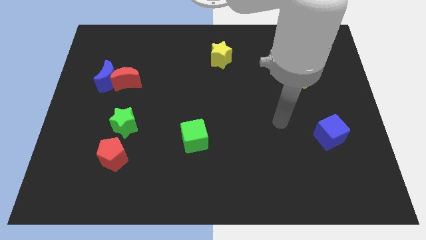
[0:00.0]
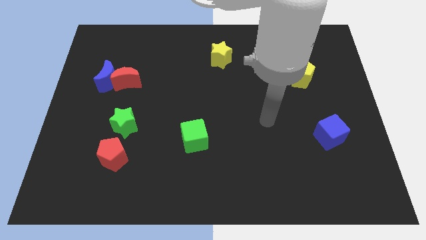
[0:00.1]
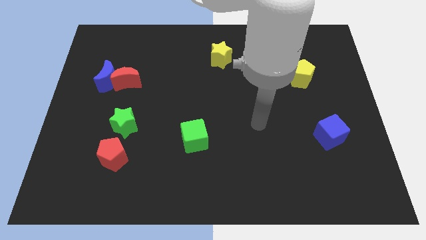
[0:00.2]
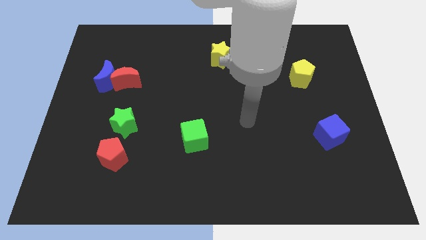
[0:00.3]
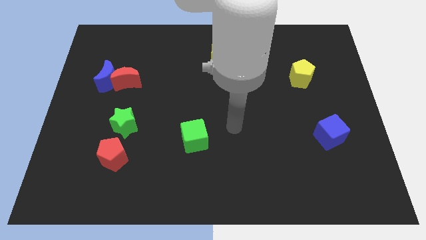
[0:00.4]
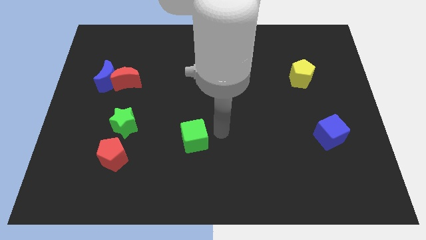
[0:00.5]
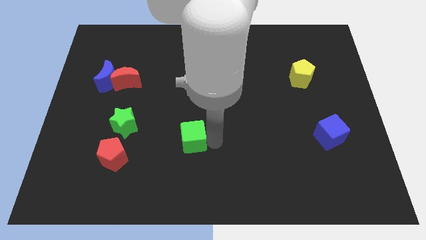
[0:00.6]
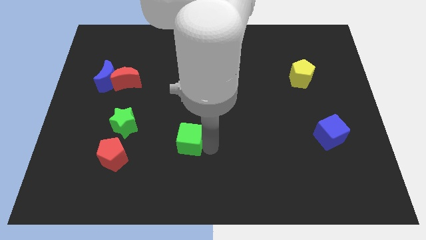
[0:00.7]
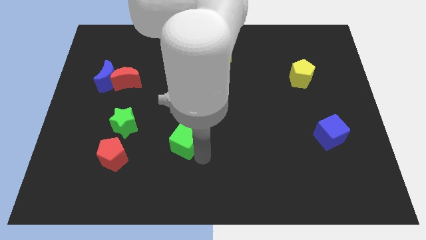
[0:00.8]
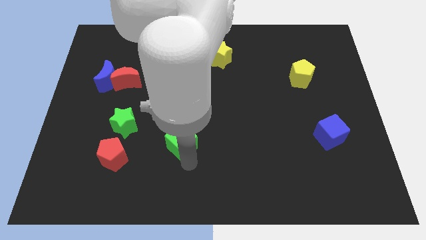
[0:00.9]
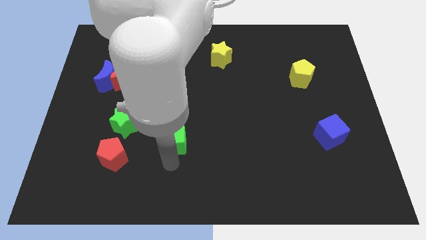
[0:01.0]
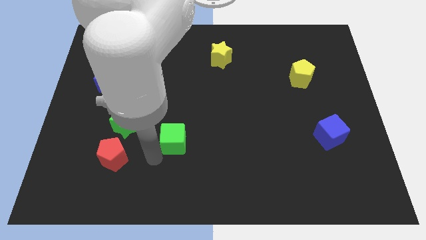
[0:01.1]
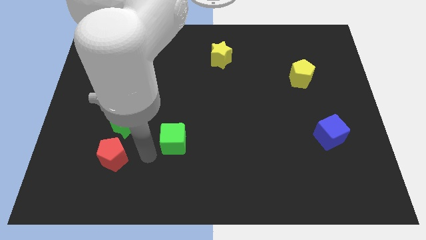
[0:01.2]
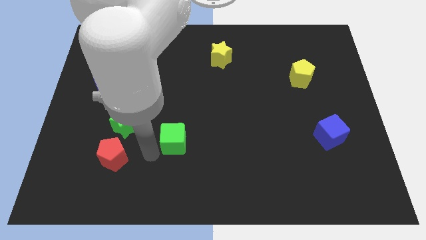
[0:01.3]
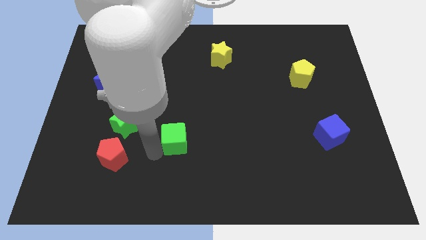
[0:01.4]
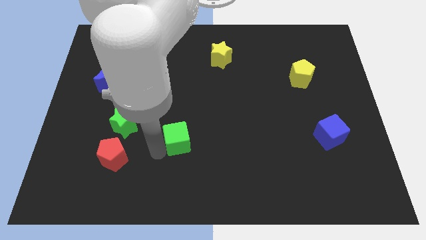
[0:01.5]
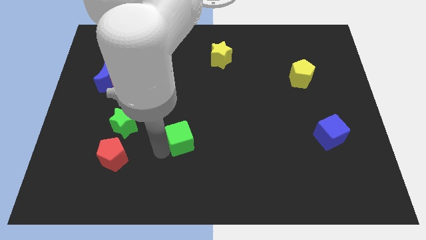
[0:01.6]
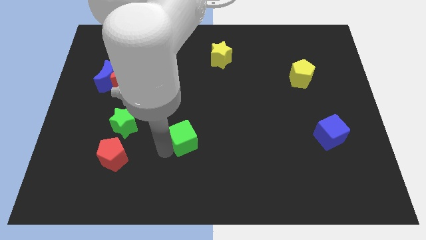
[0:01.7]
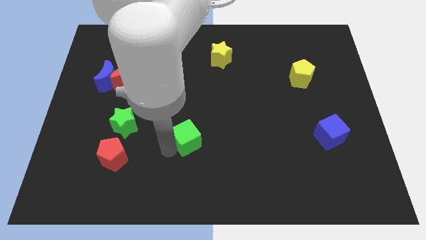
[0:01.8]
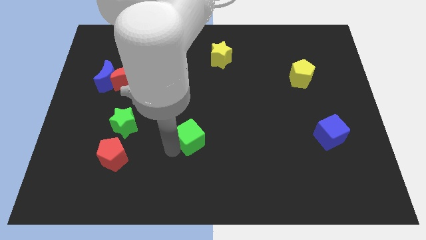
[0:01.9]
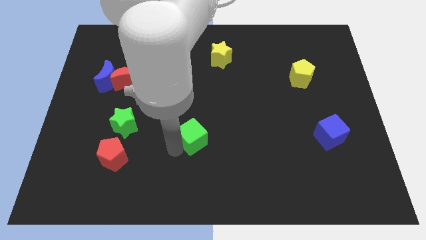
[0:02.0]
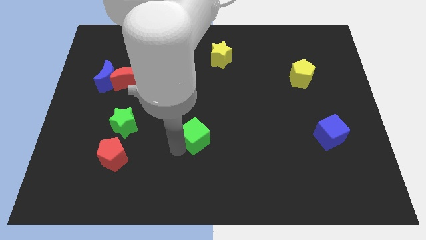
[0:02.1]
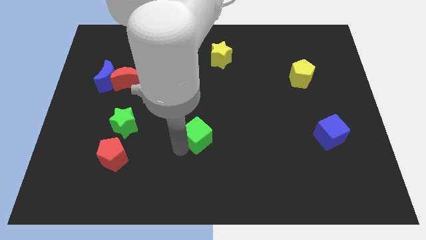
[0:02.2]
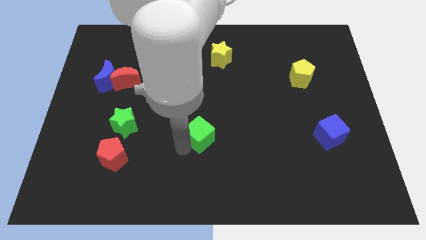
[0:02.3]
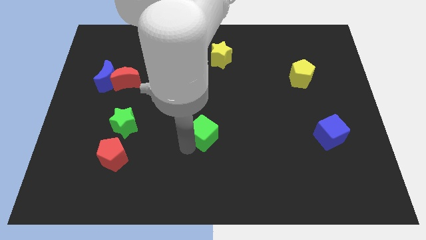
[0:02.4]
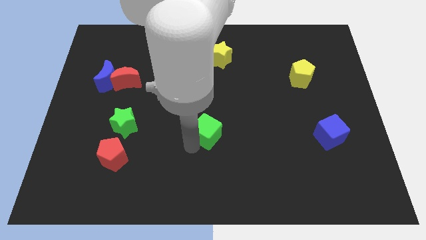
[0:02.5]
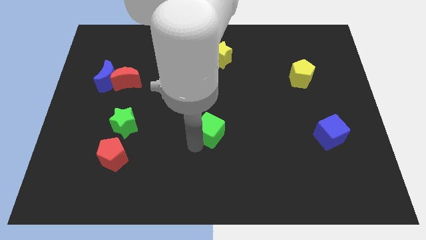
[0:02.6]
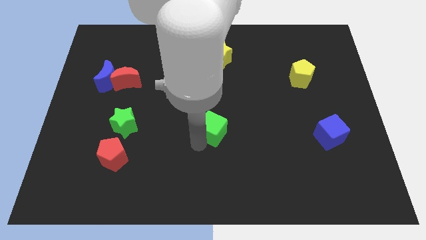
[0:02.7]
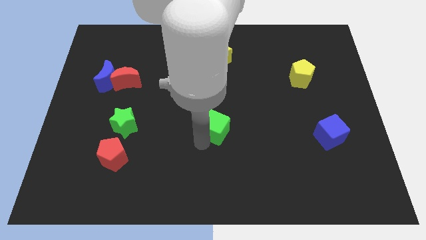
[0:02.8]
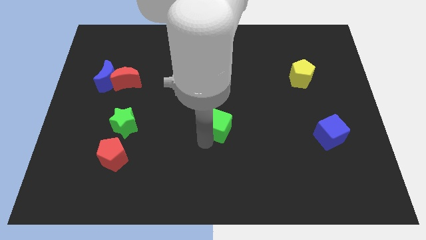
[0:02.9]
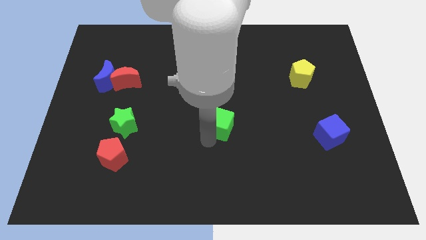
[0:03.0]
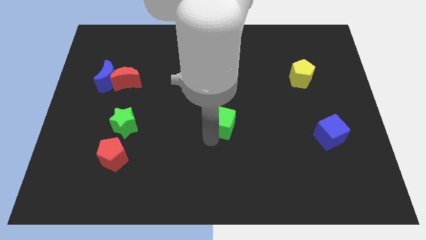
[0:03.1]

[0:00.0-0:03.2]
push the green cube upwards and to the right diagonally a little

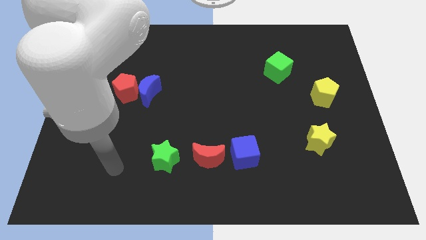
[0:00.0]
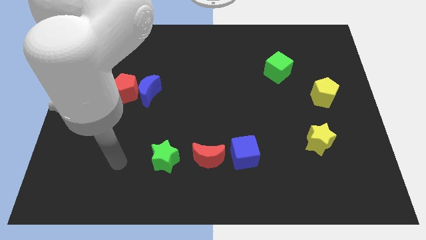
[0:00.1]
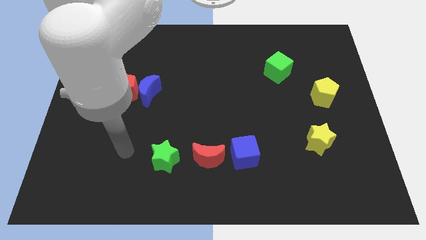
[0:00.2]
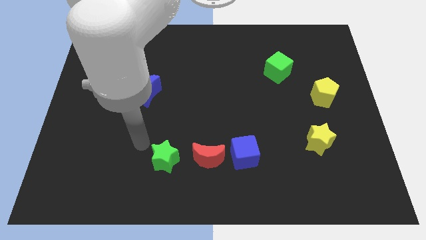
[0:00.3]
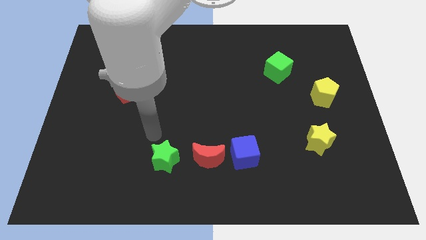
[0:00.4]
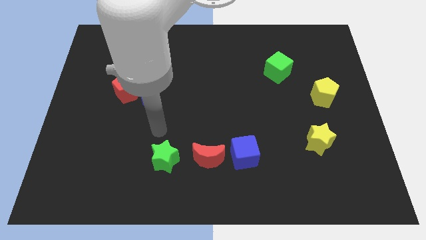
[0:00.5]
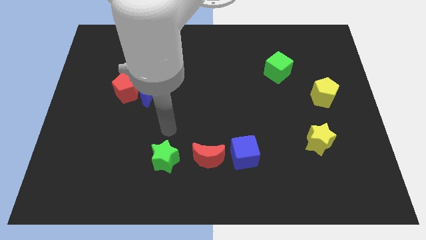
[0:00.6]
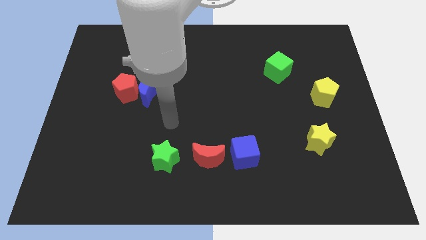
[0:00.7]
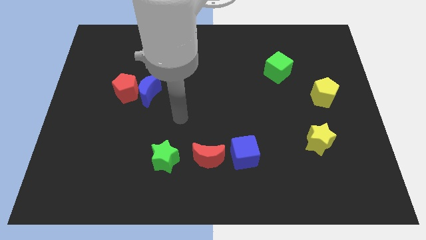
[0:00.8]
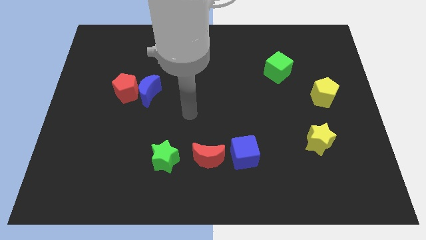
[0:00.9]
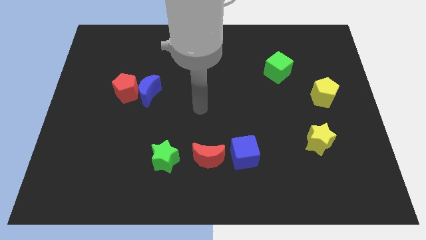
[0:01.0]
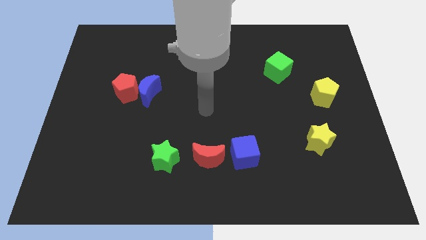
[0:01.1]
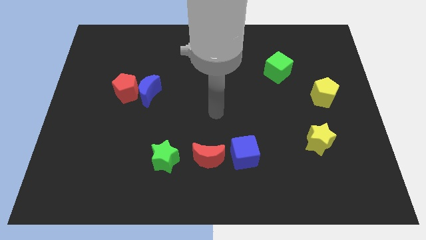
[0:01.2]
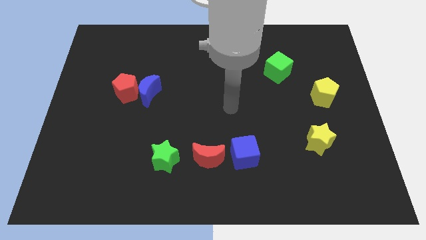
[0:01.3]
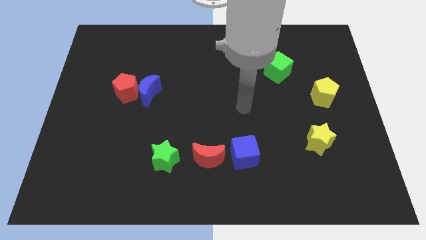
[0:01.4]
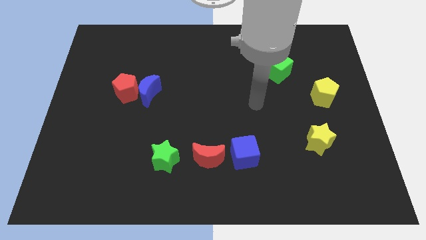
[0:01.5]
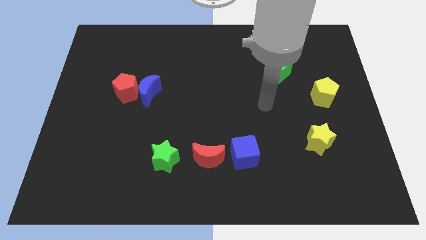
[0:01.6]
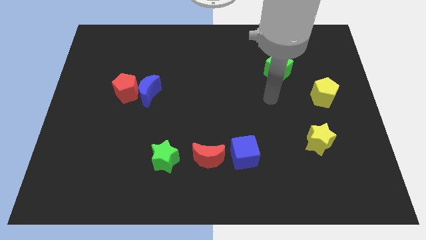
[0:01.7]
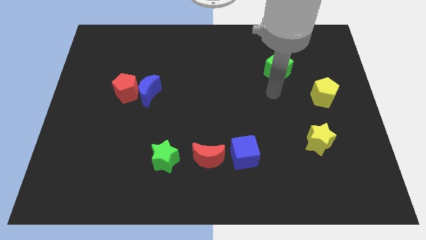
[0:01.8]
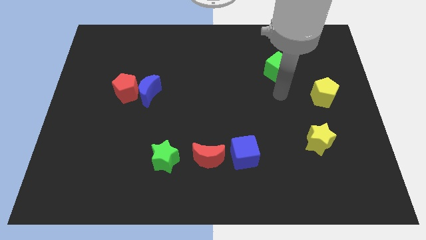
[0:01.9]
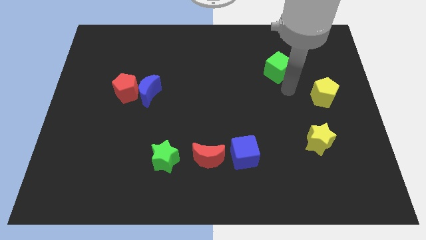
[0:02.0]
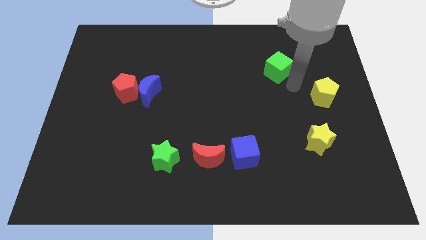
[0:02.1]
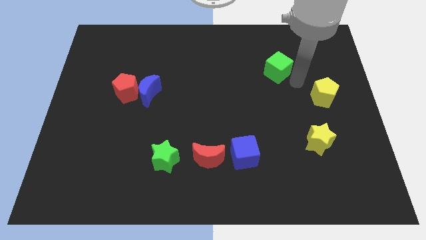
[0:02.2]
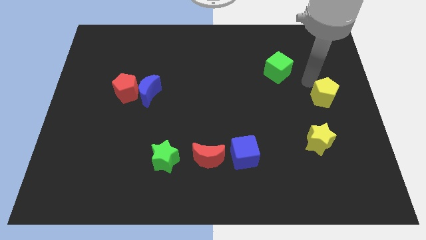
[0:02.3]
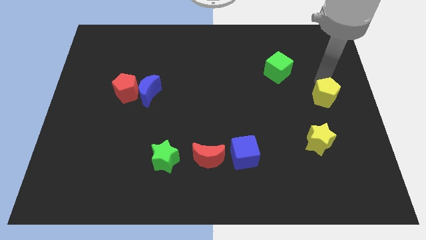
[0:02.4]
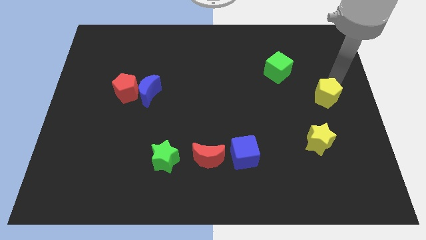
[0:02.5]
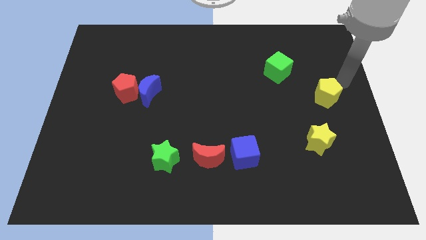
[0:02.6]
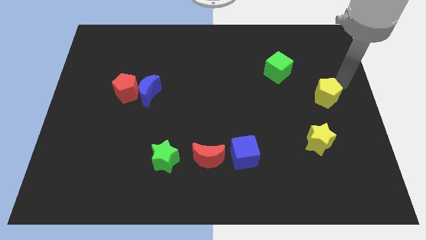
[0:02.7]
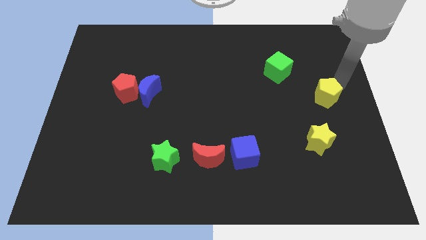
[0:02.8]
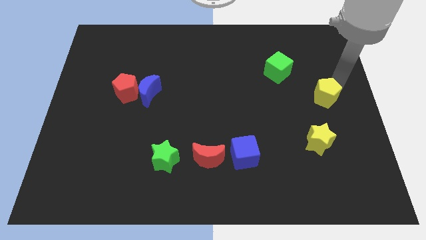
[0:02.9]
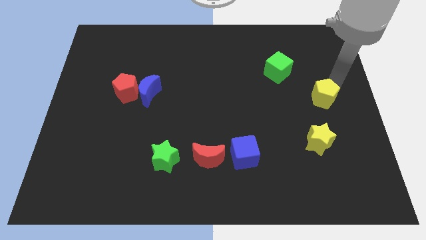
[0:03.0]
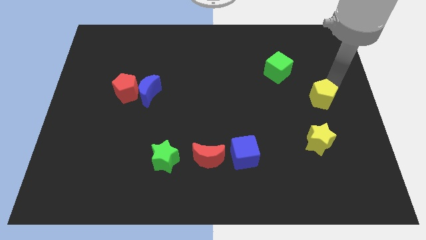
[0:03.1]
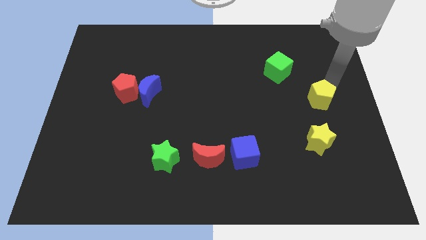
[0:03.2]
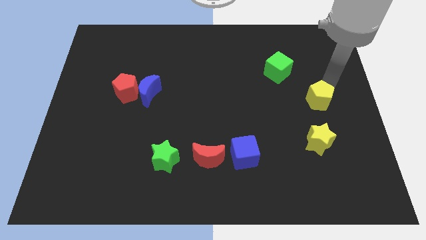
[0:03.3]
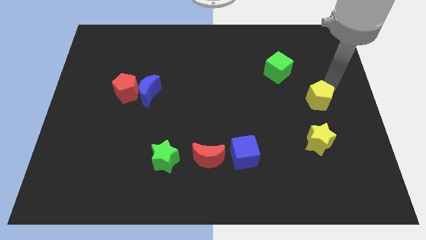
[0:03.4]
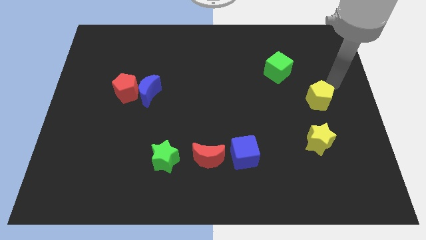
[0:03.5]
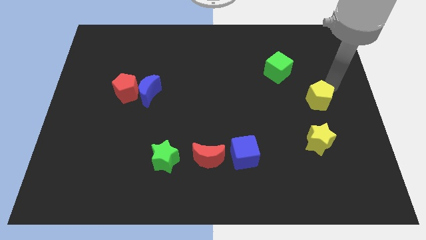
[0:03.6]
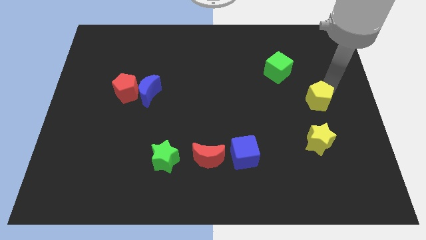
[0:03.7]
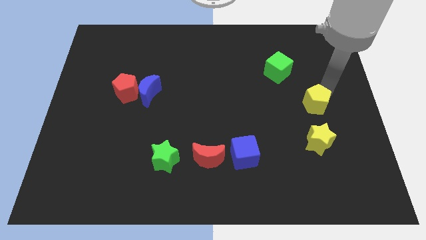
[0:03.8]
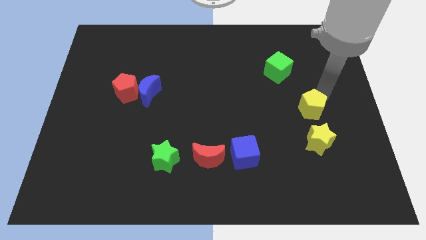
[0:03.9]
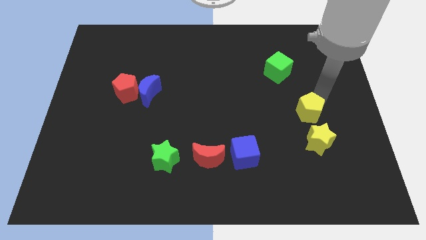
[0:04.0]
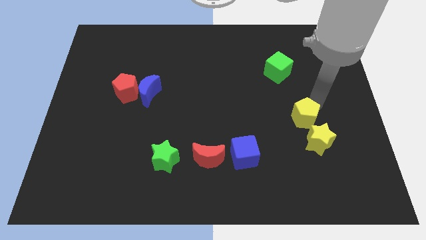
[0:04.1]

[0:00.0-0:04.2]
slightly slide the yellow pentagon downwards and to the left diagonally

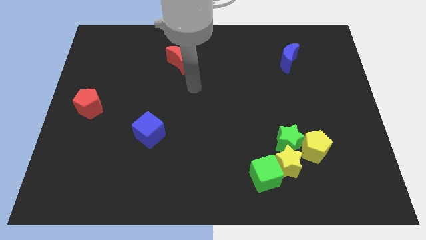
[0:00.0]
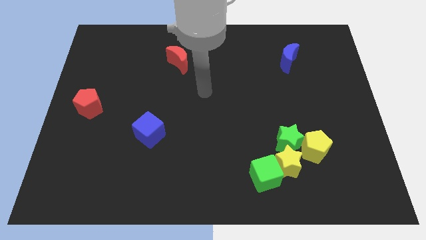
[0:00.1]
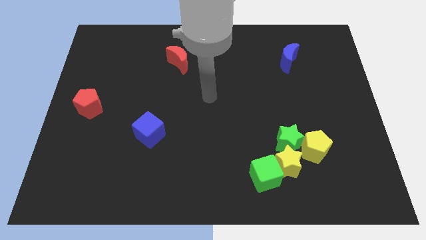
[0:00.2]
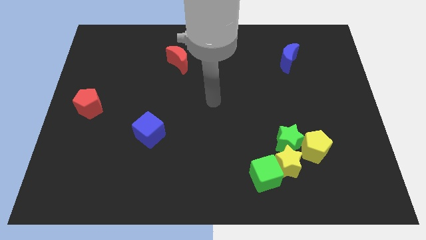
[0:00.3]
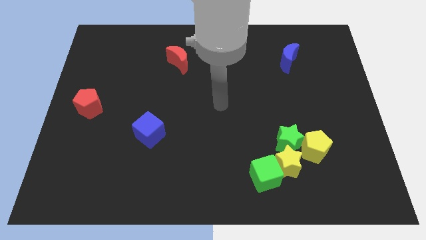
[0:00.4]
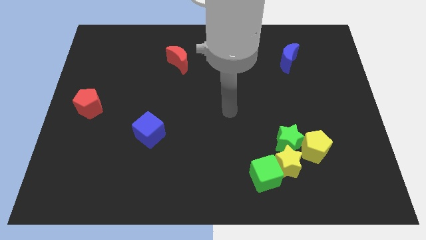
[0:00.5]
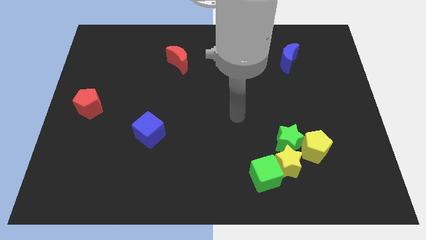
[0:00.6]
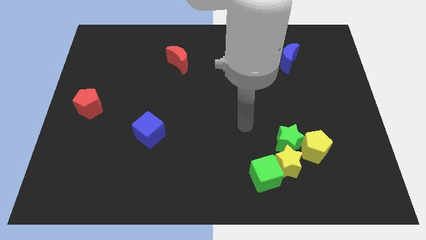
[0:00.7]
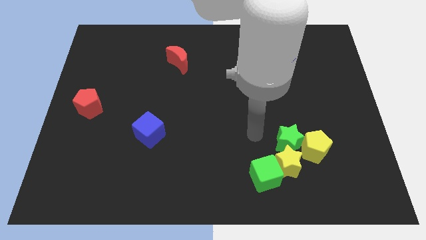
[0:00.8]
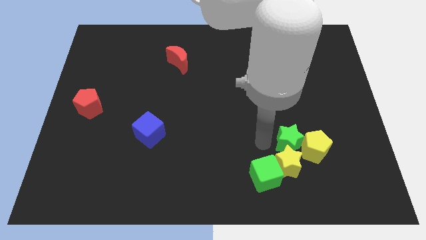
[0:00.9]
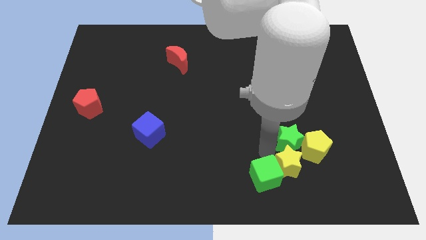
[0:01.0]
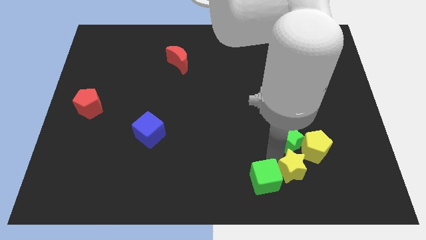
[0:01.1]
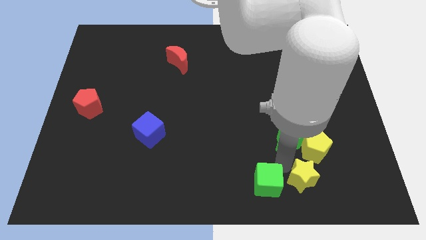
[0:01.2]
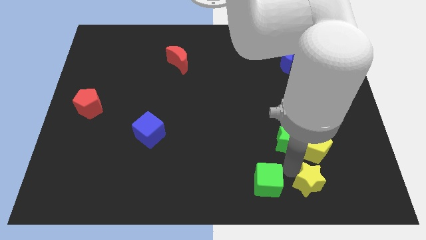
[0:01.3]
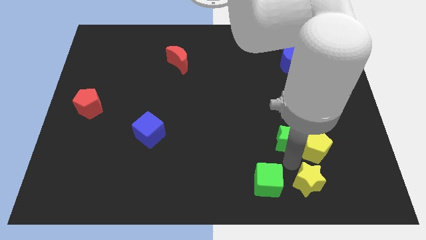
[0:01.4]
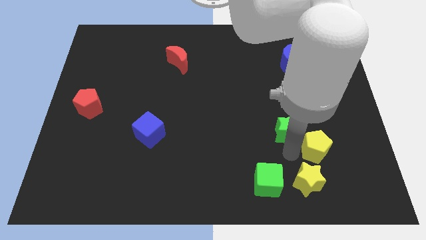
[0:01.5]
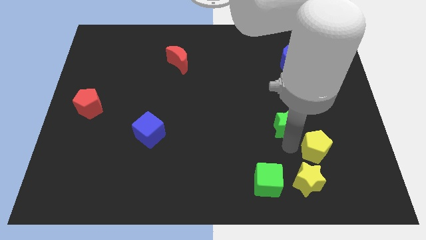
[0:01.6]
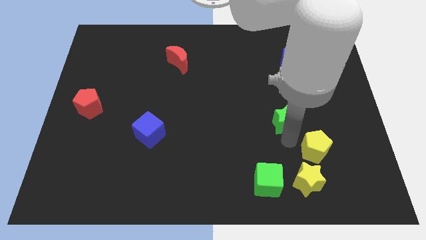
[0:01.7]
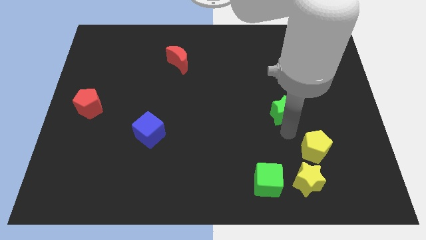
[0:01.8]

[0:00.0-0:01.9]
slightly push the green star up
